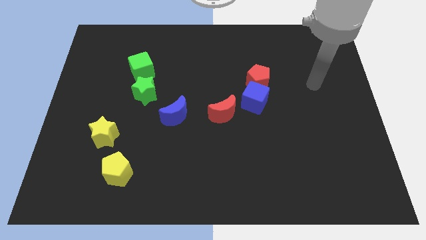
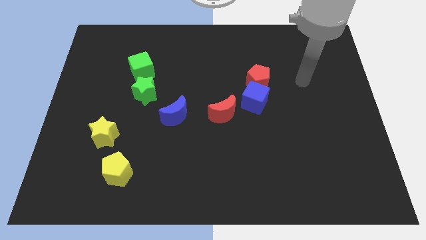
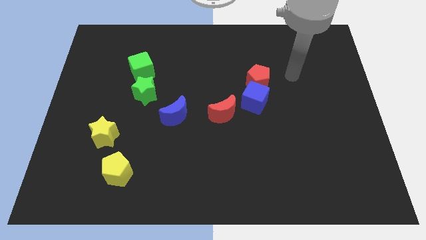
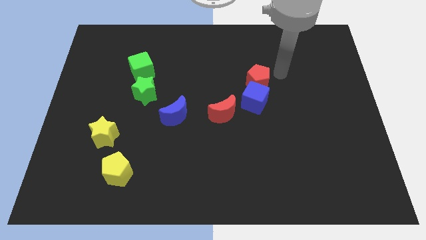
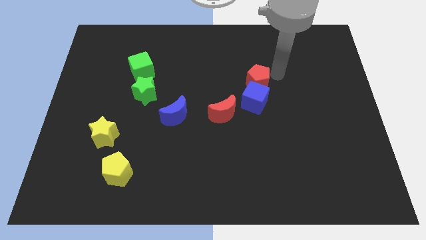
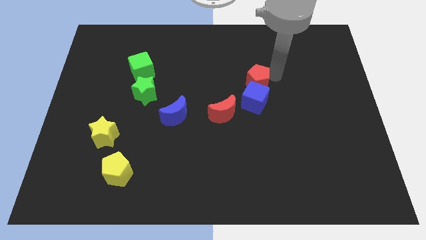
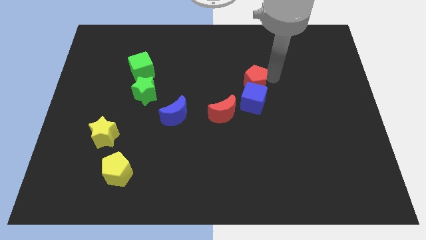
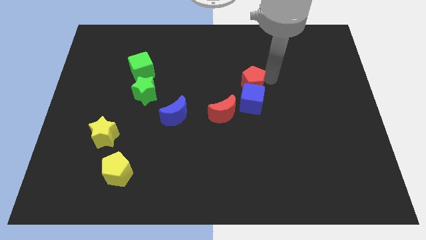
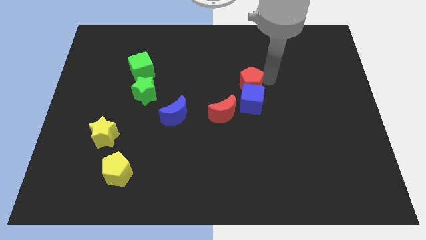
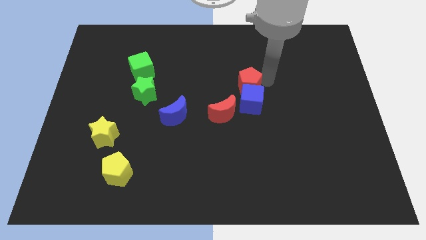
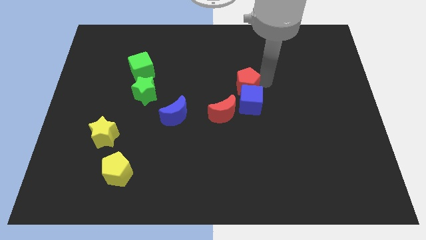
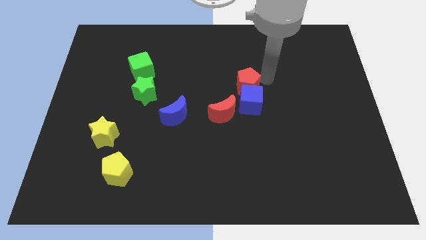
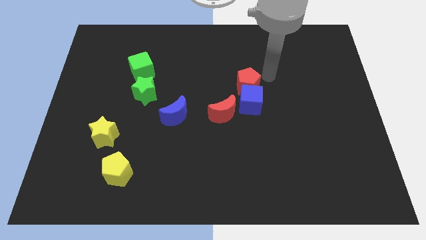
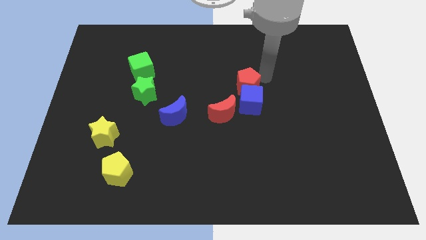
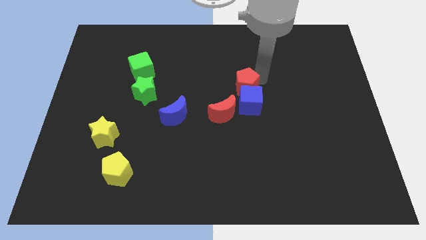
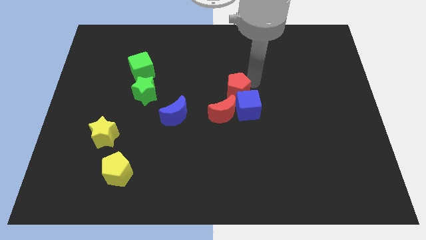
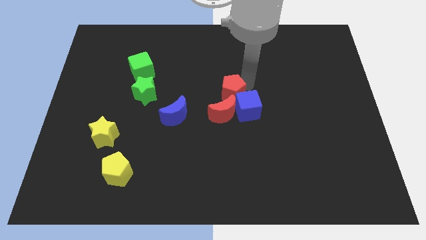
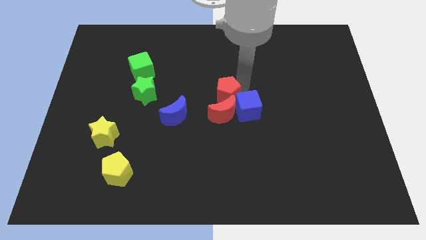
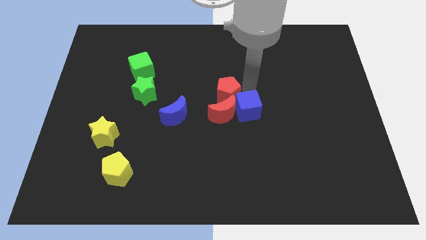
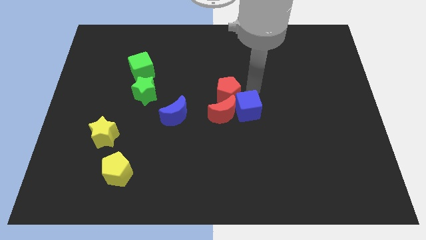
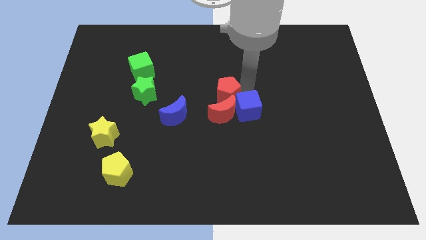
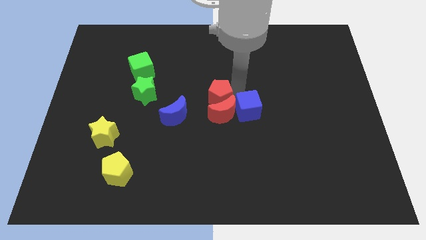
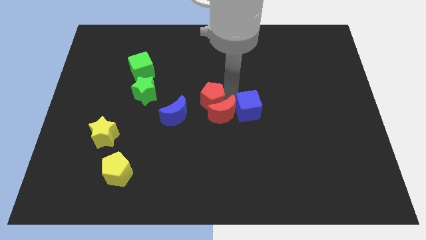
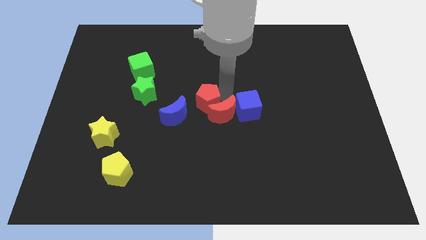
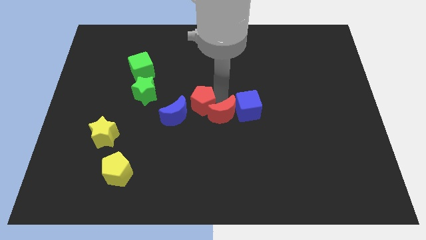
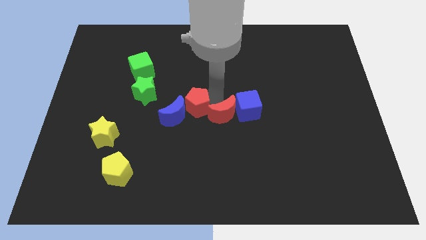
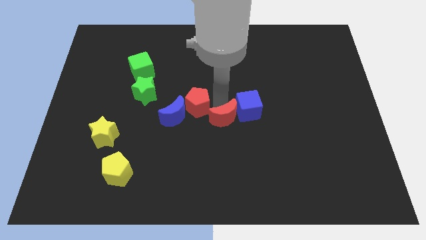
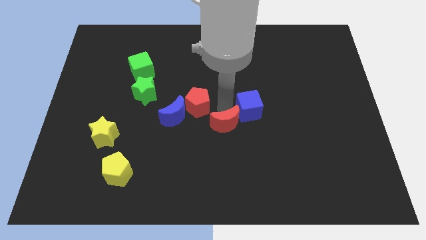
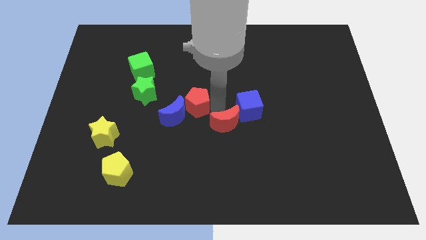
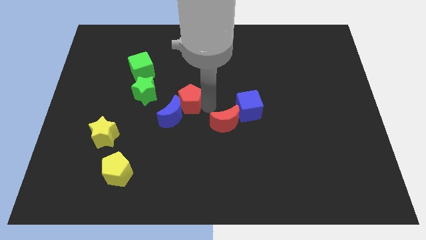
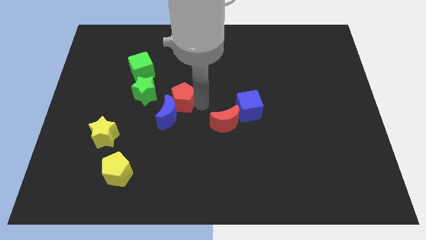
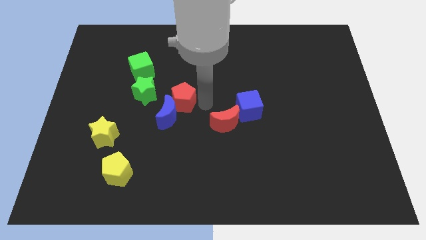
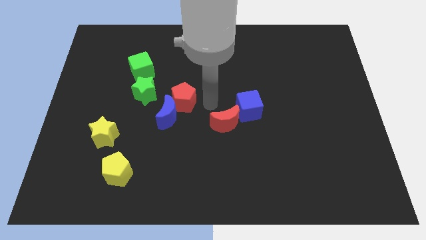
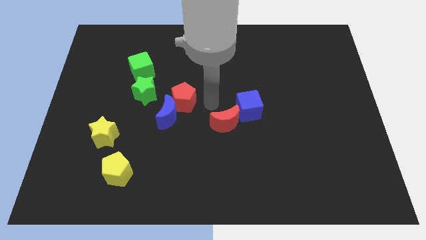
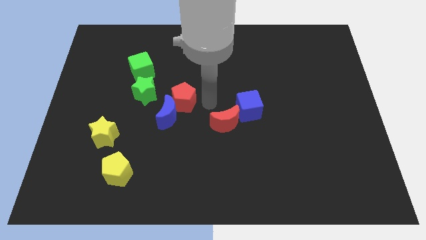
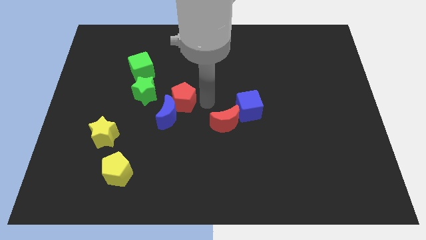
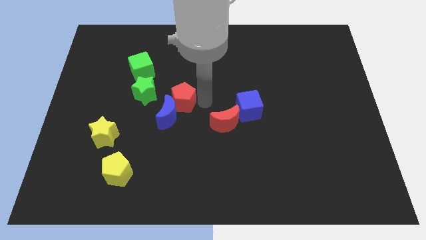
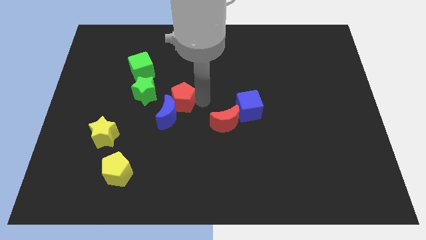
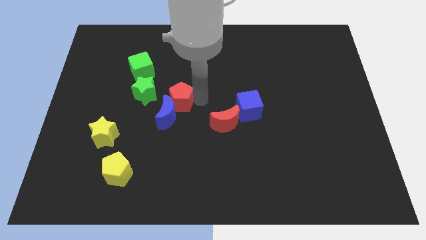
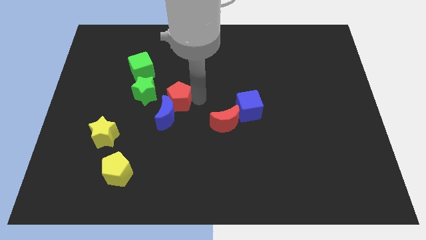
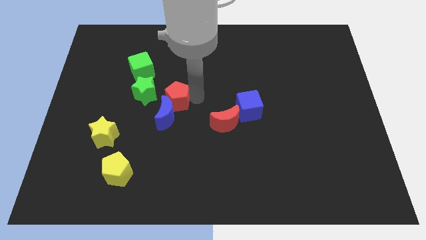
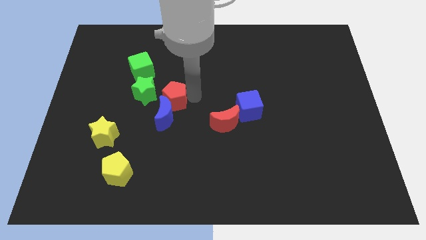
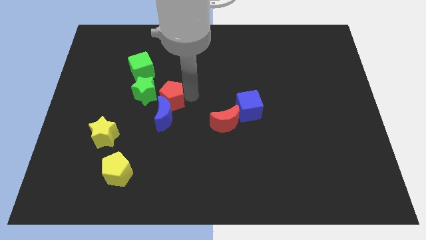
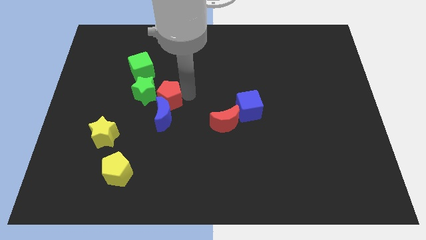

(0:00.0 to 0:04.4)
move the red pentagon left

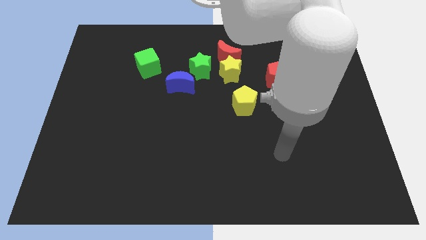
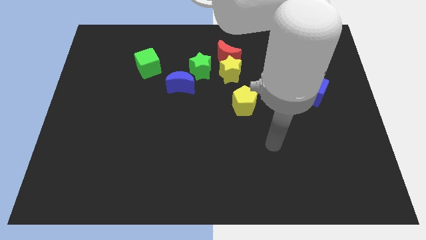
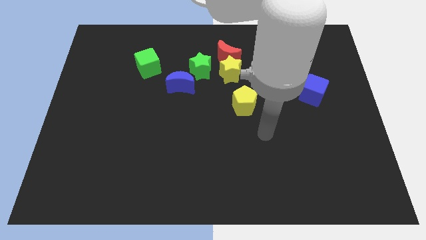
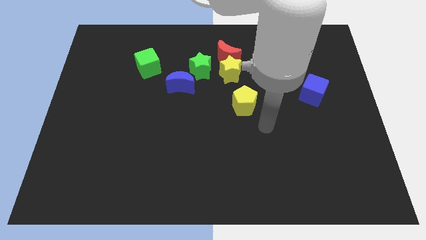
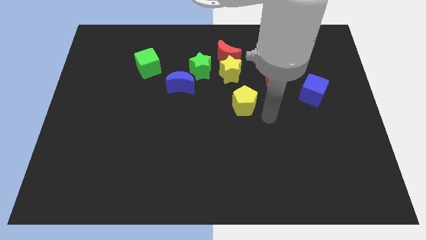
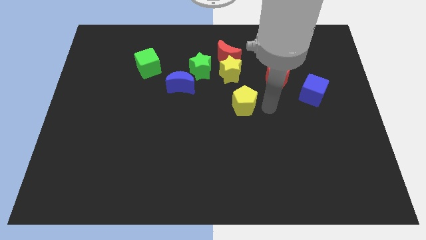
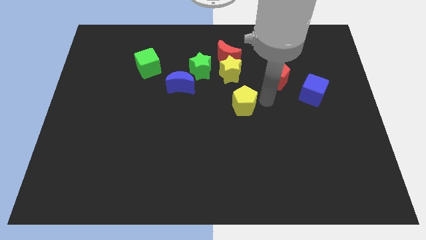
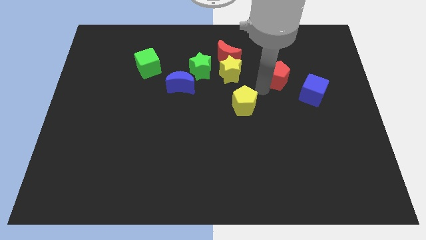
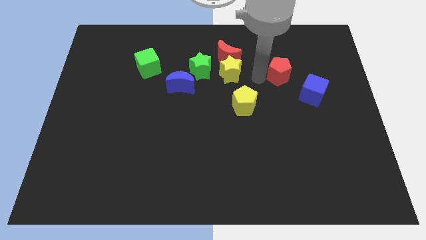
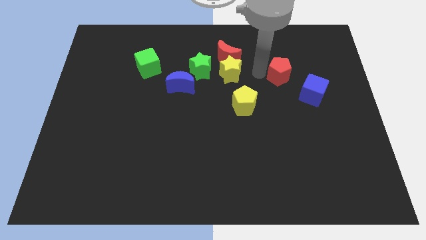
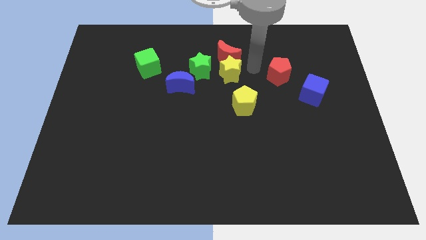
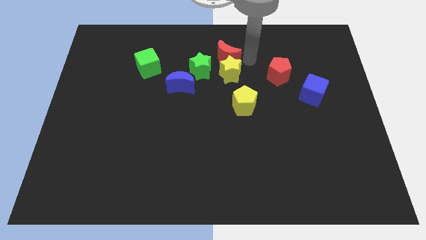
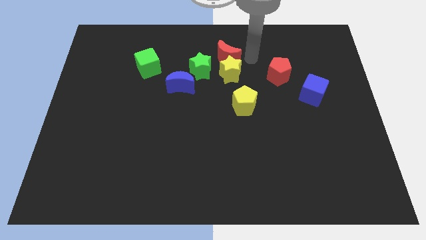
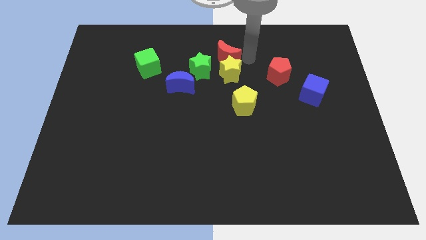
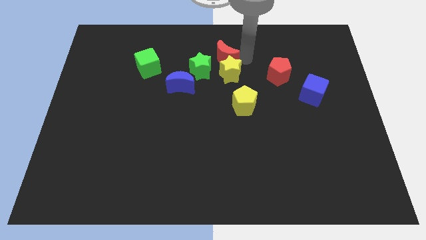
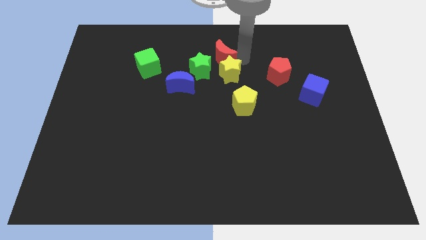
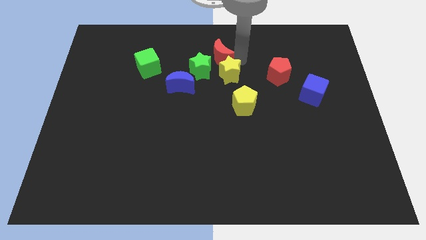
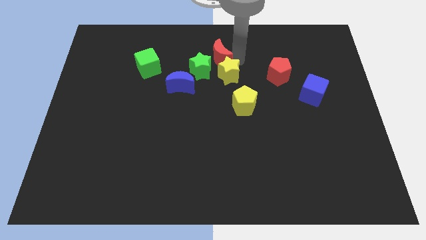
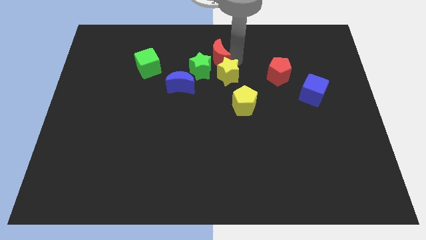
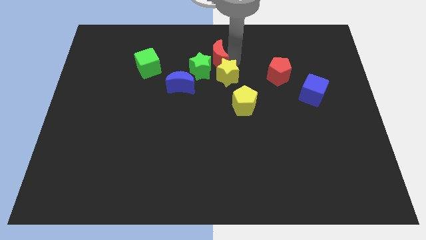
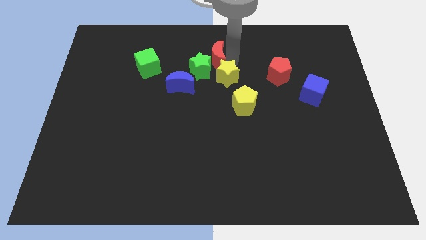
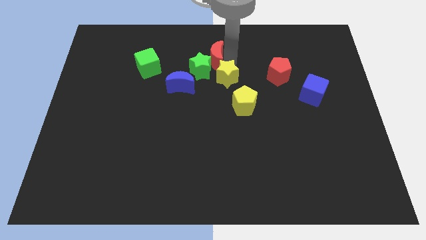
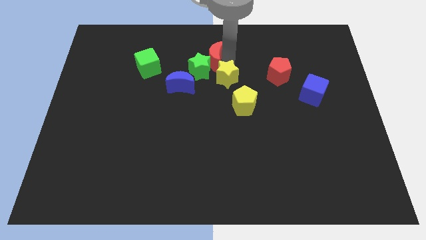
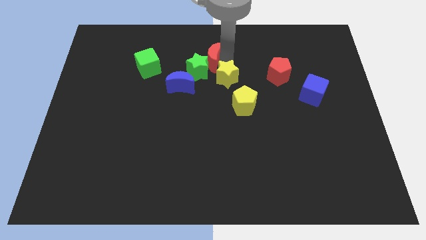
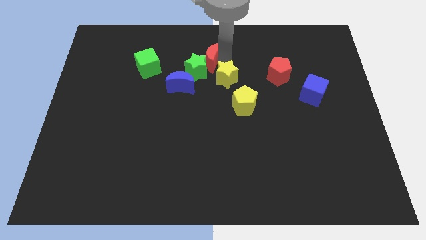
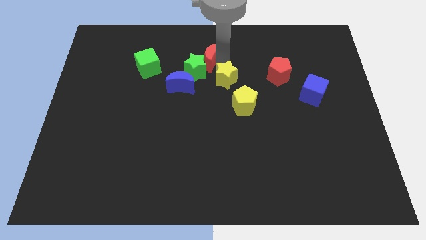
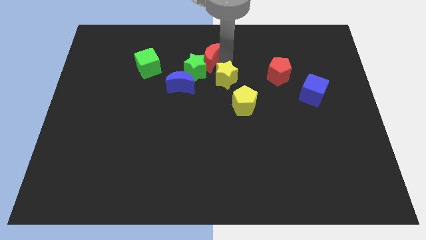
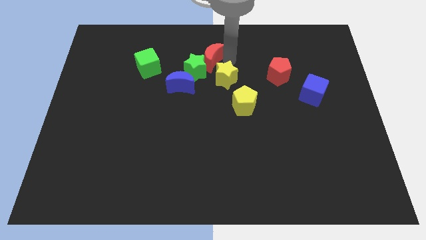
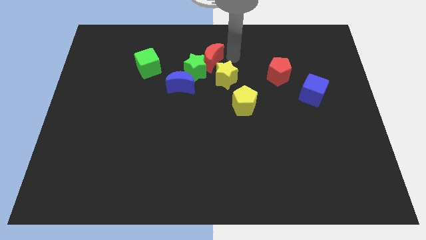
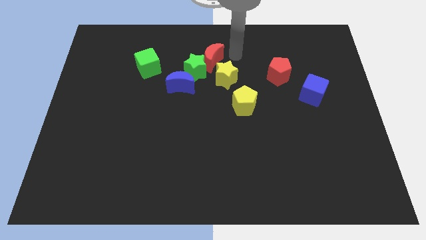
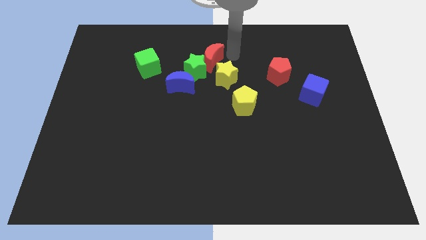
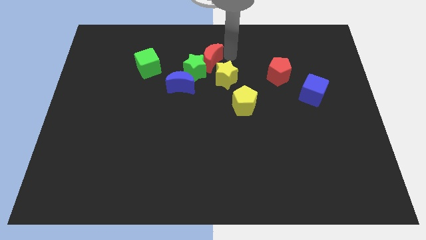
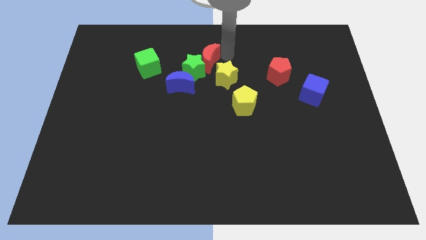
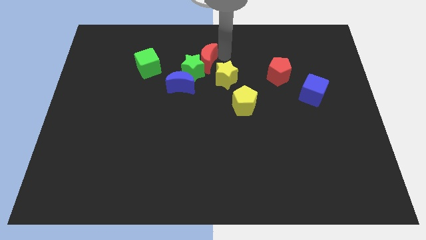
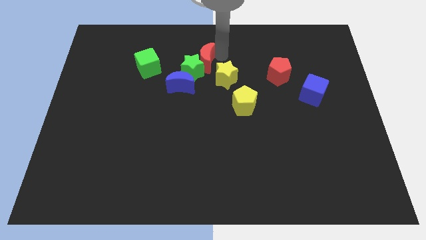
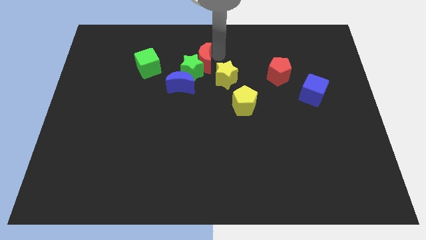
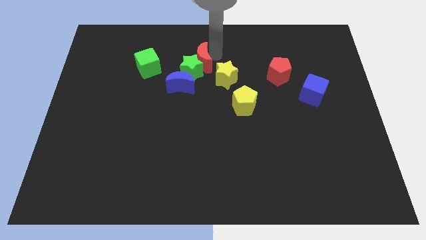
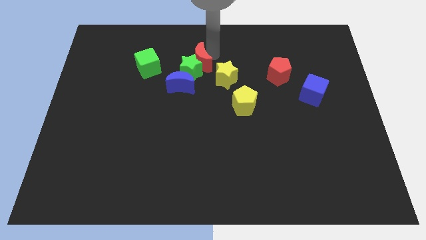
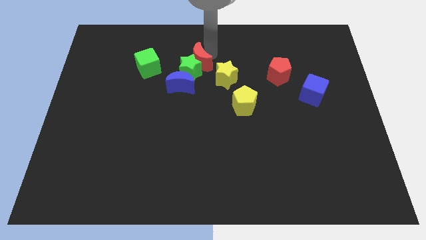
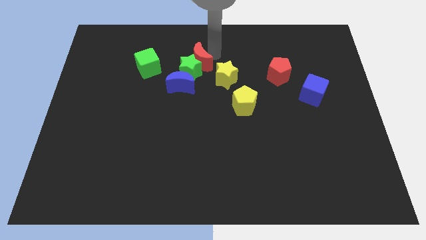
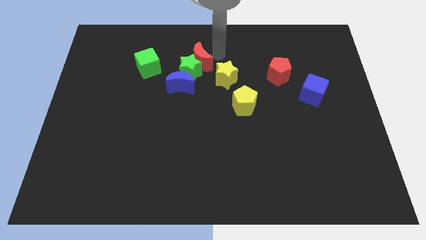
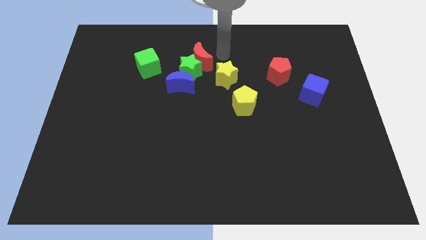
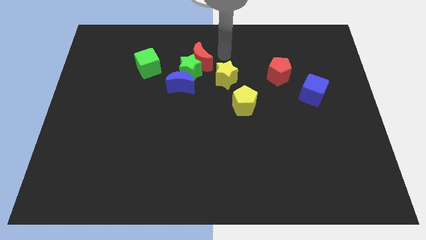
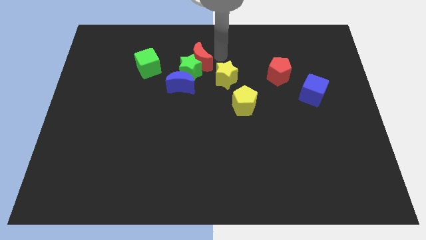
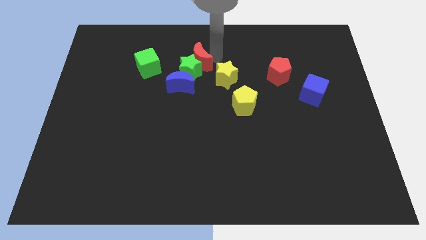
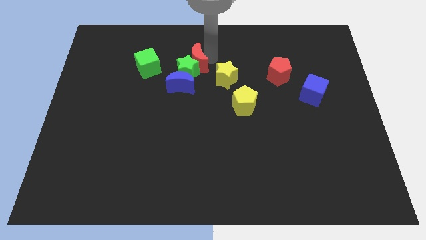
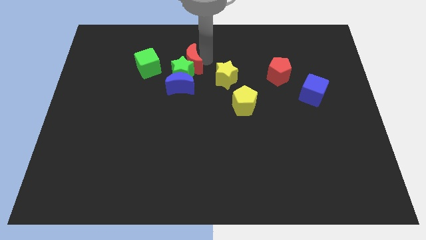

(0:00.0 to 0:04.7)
push the red moon diagonally downwards and to the left a bit
